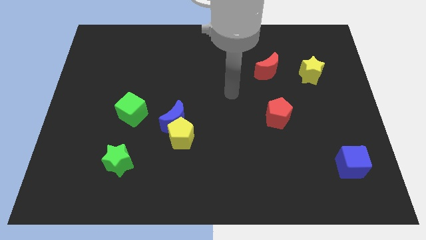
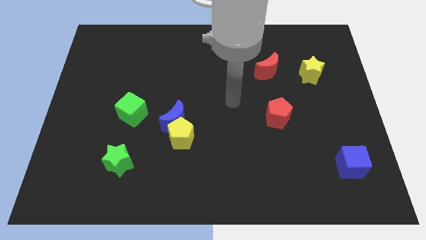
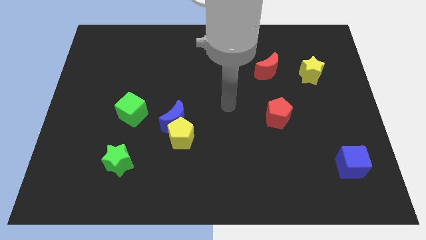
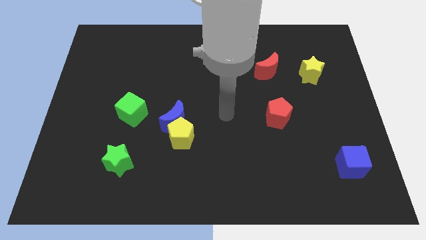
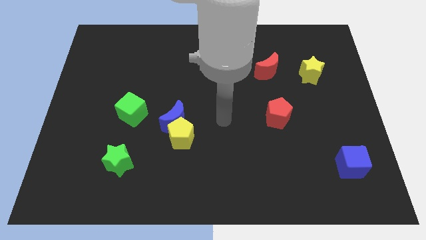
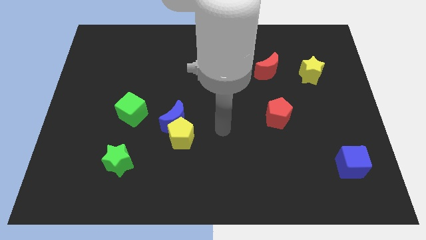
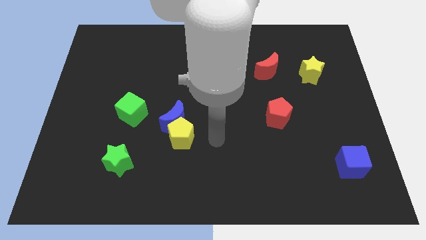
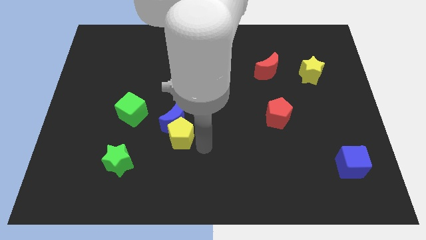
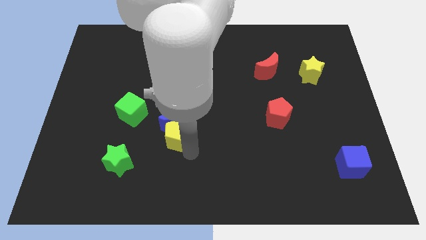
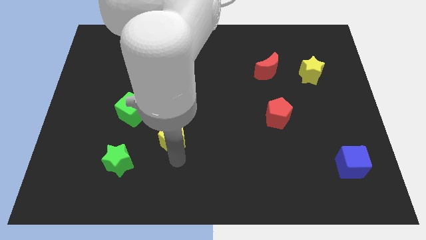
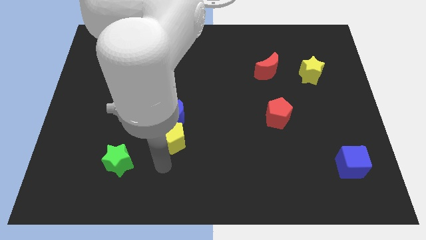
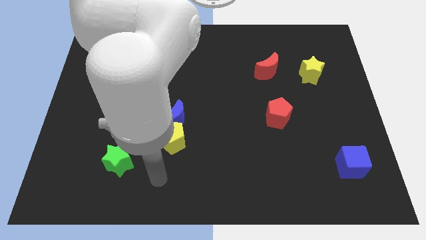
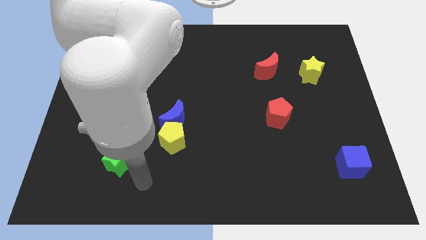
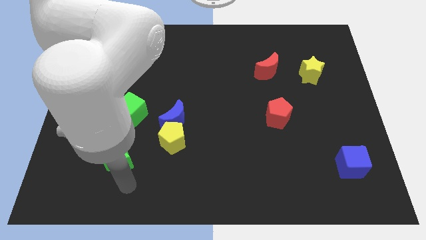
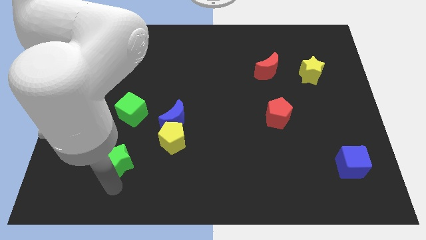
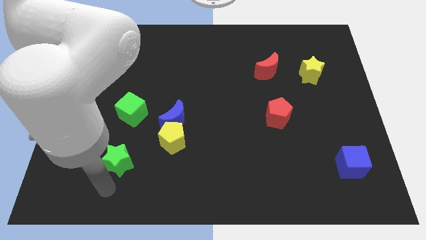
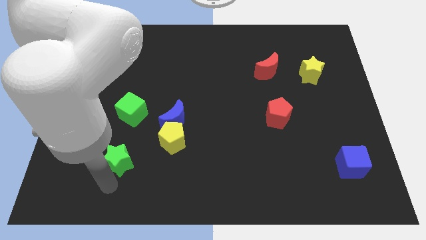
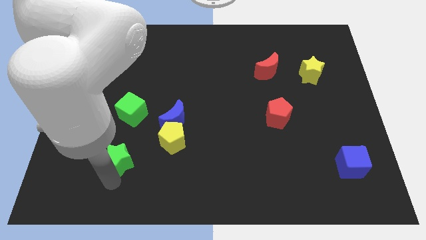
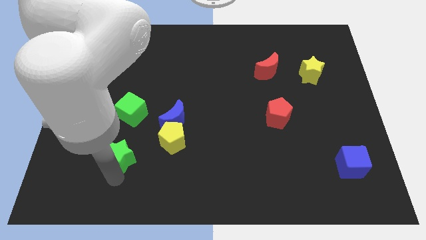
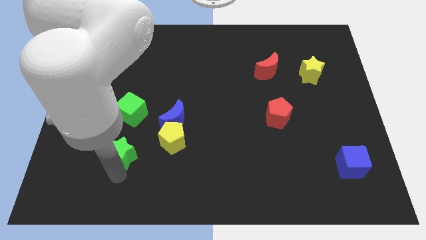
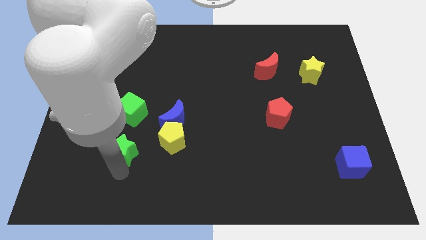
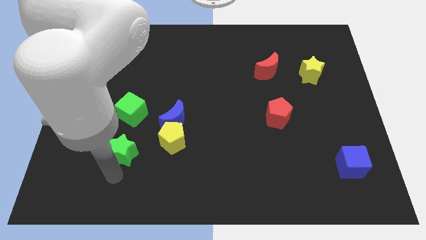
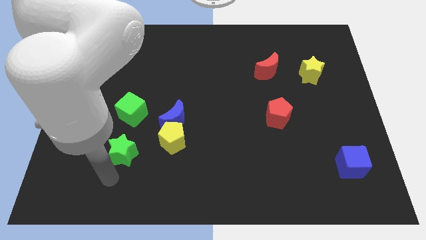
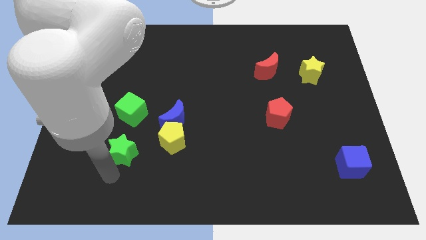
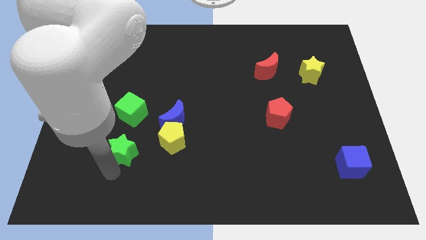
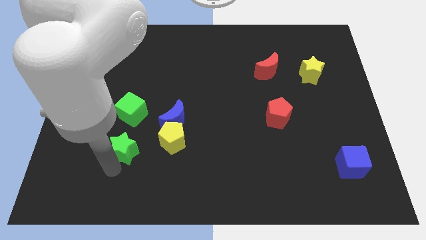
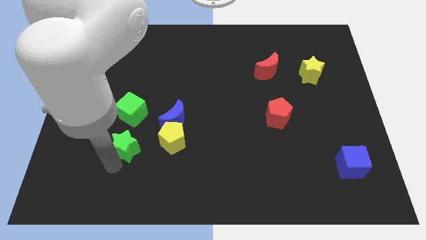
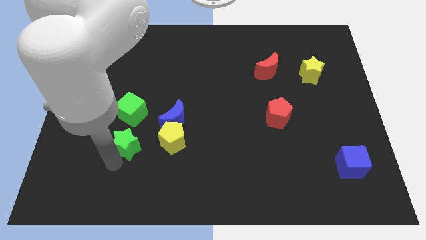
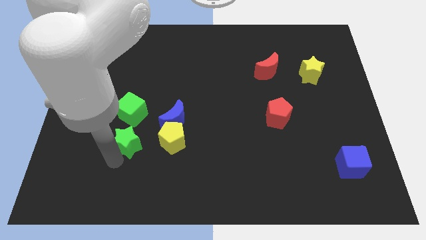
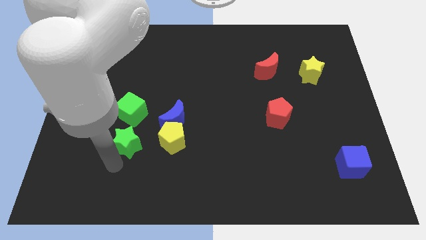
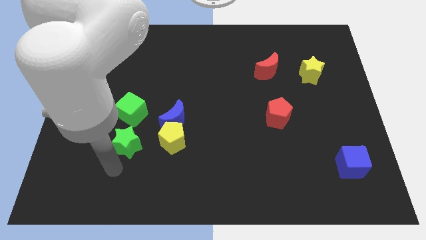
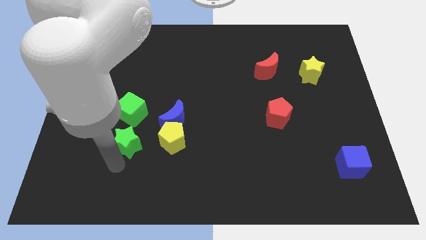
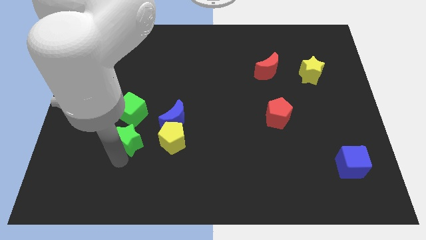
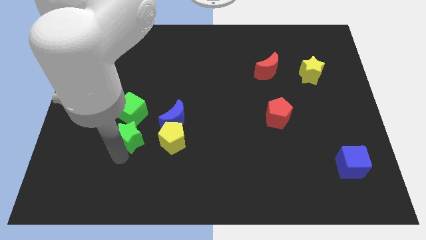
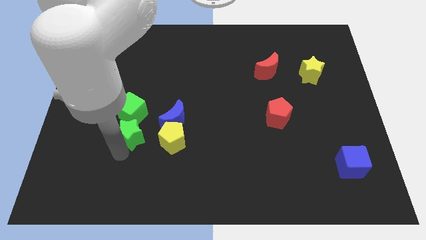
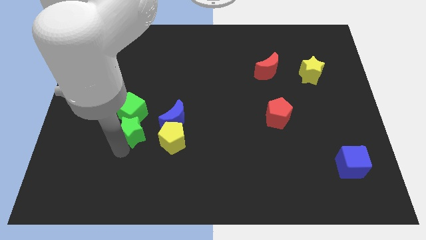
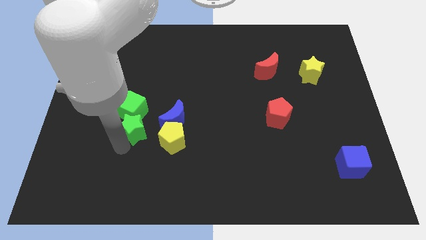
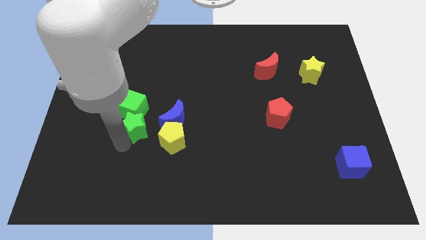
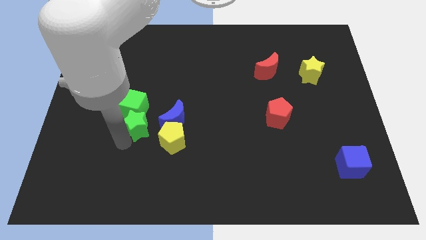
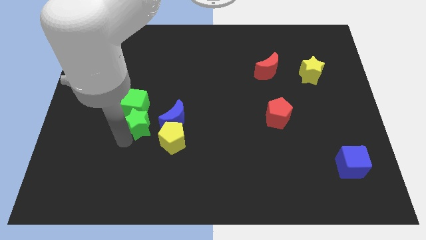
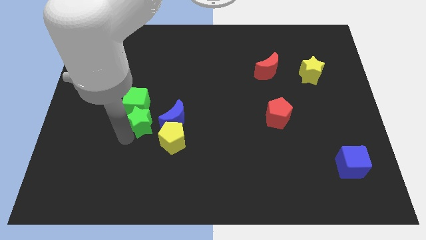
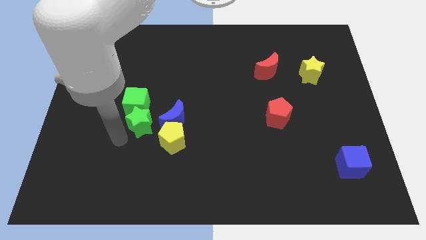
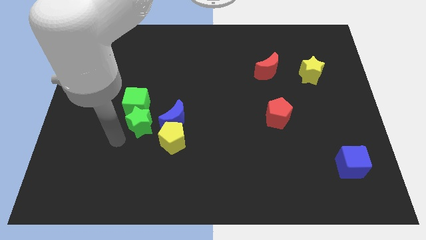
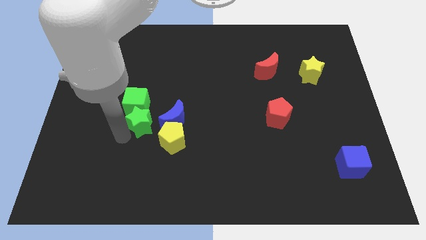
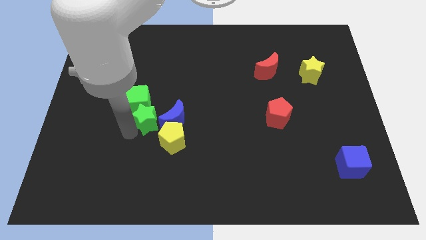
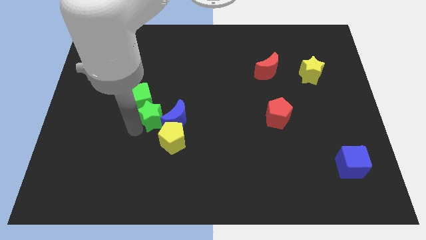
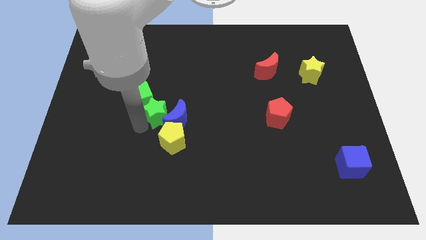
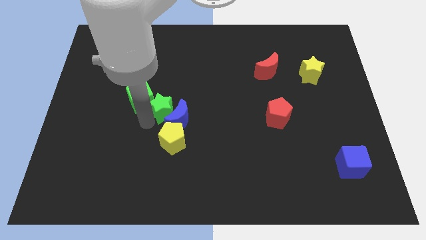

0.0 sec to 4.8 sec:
move the green star to the center

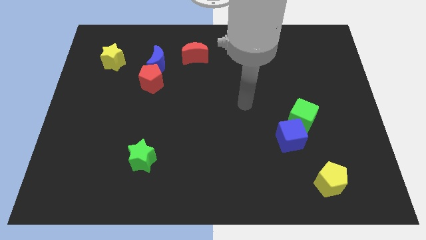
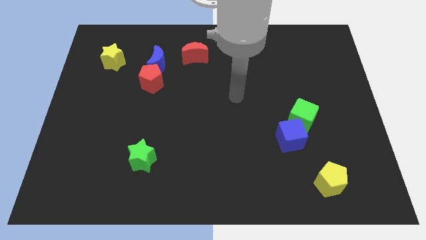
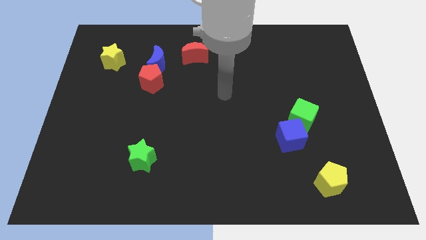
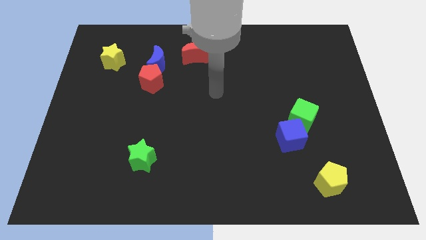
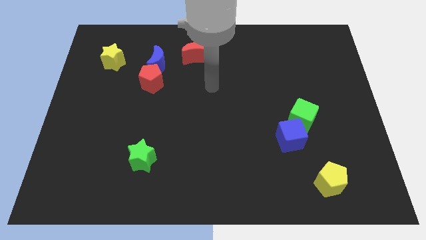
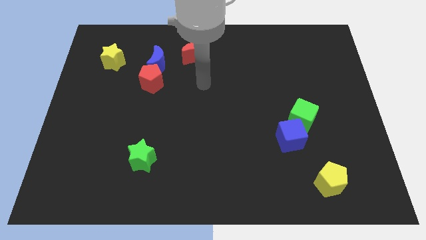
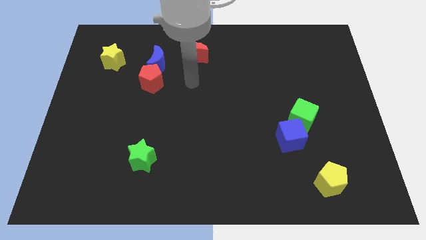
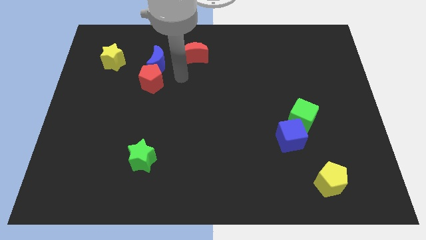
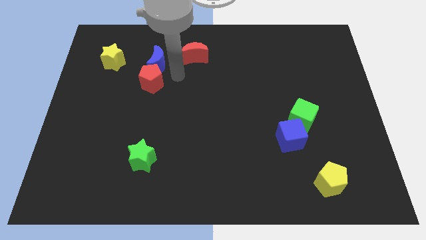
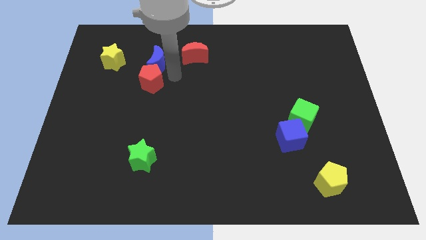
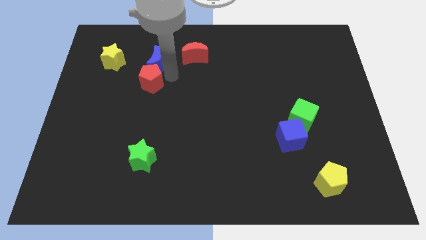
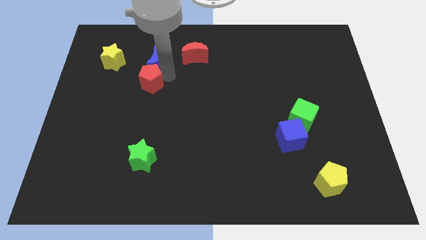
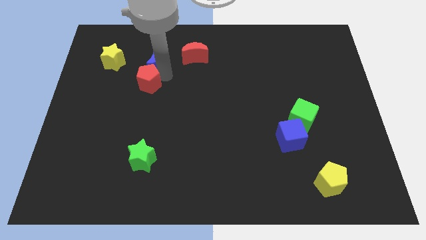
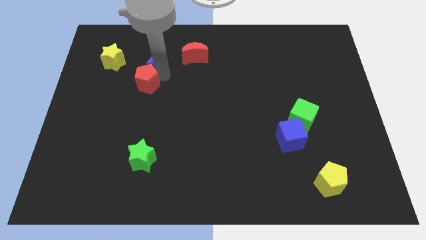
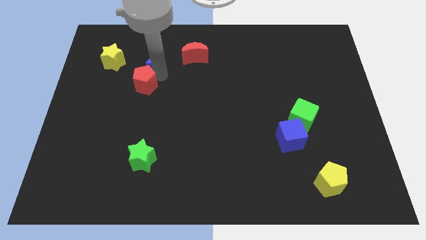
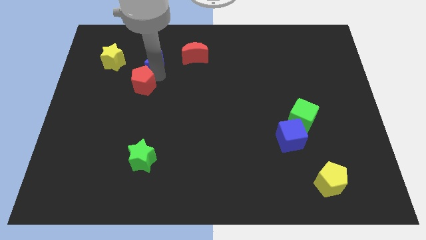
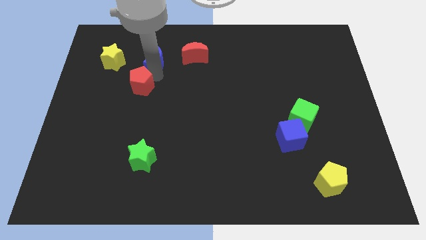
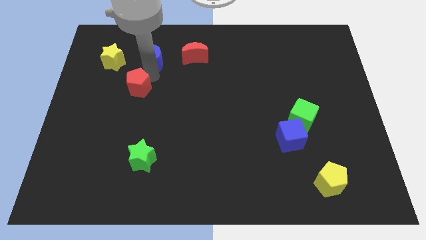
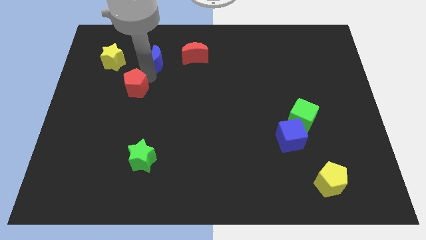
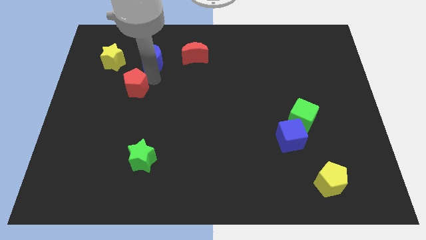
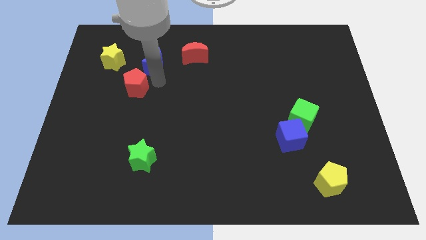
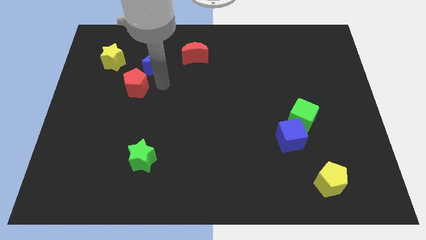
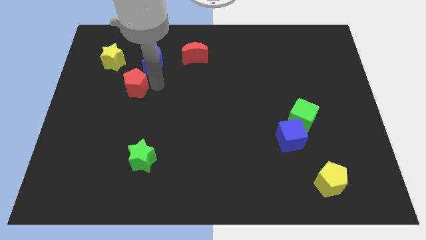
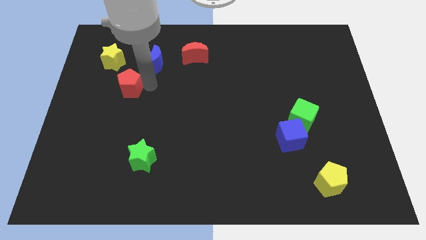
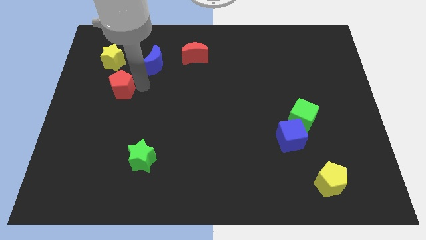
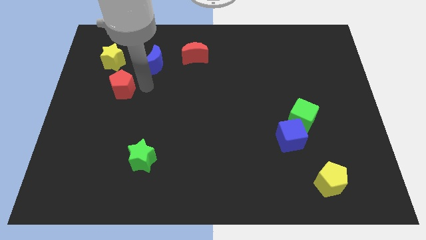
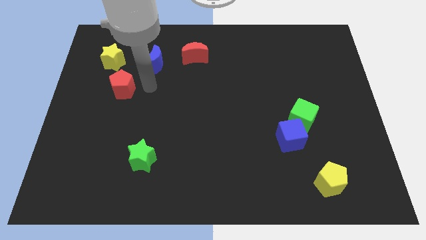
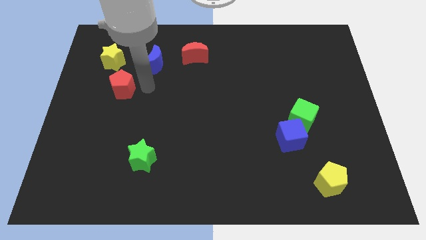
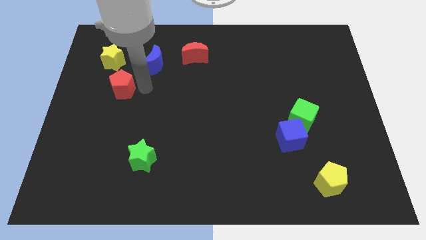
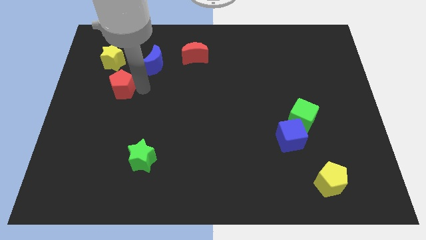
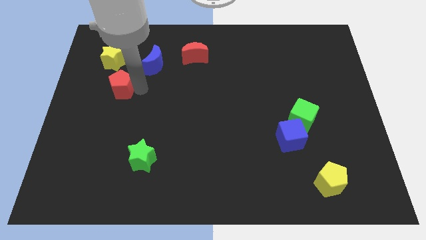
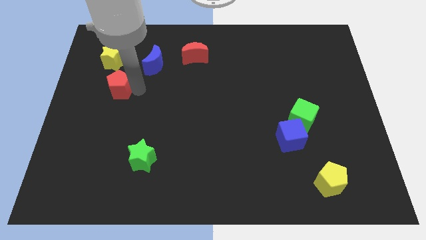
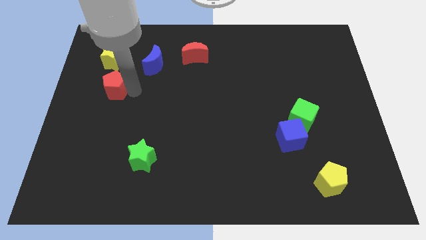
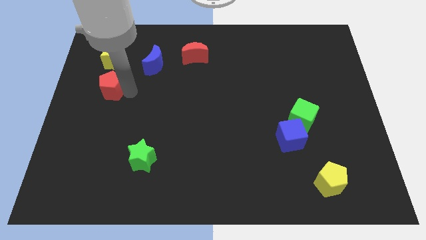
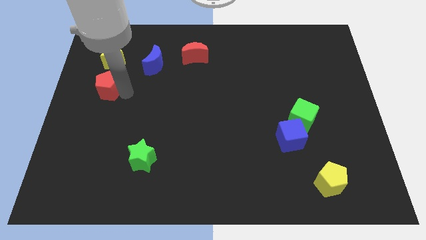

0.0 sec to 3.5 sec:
push the red pentagon to the left side of the board
